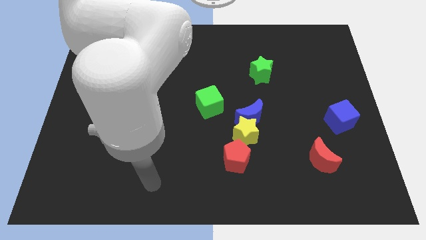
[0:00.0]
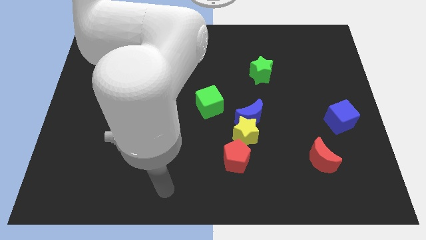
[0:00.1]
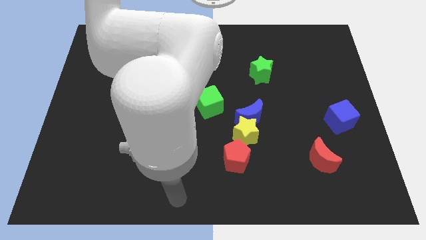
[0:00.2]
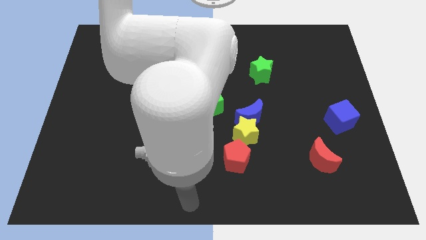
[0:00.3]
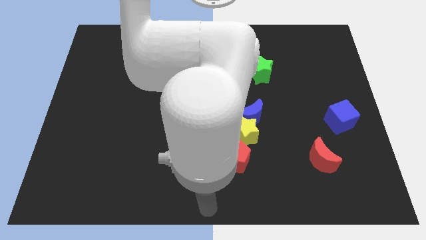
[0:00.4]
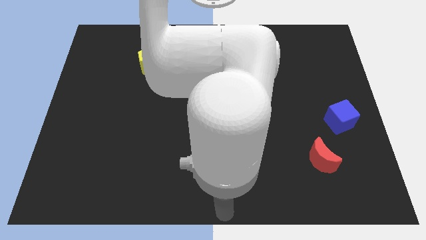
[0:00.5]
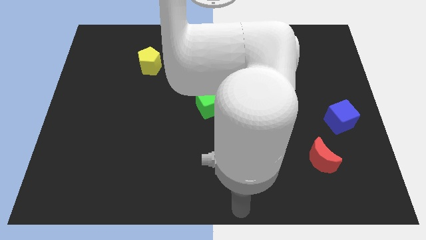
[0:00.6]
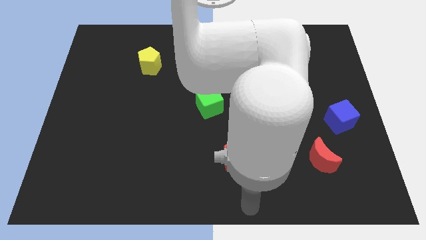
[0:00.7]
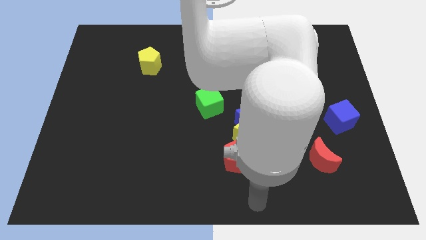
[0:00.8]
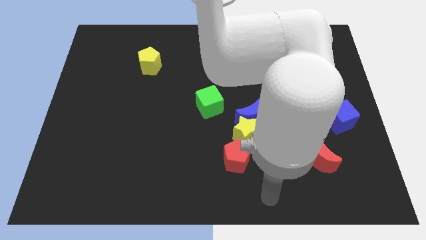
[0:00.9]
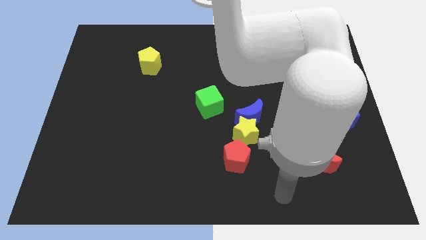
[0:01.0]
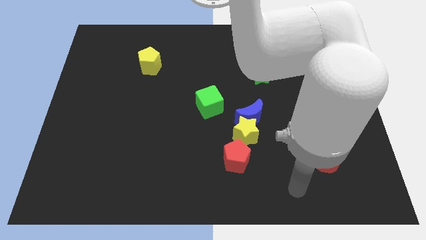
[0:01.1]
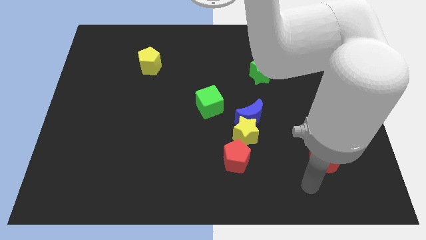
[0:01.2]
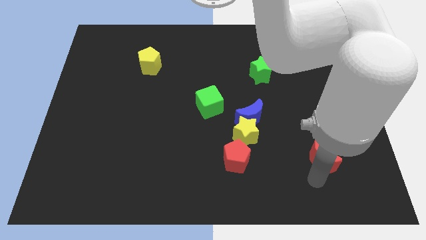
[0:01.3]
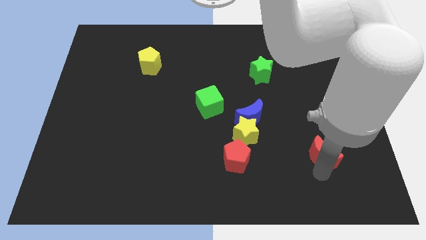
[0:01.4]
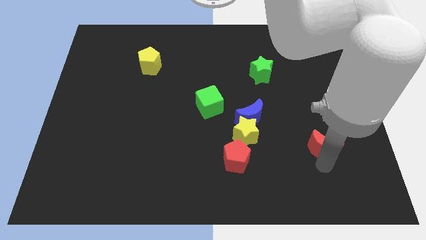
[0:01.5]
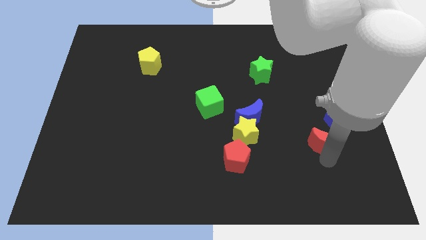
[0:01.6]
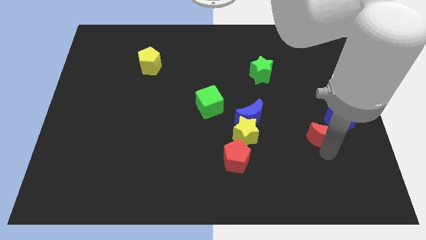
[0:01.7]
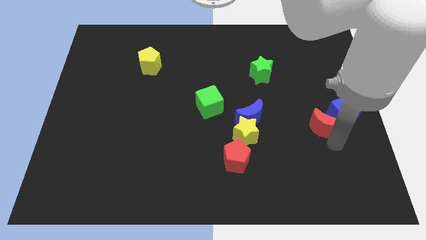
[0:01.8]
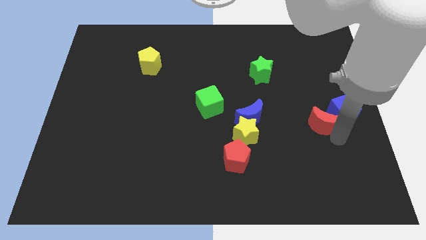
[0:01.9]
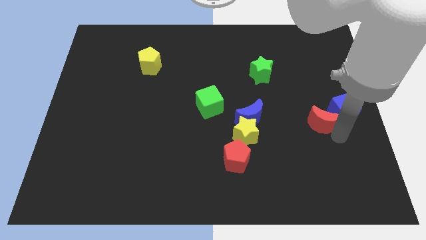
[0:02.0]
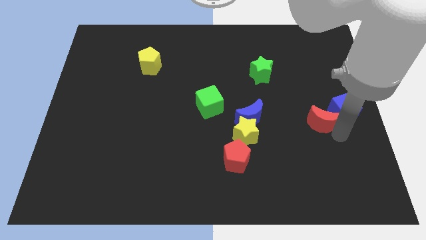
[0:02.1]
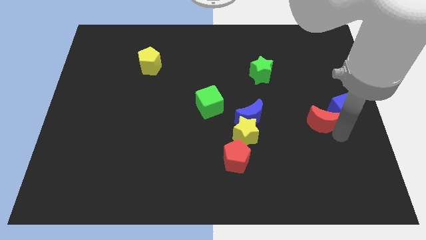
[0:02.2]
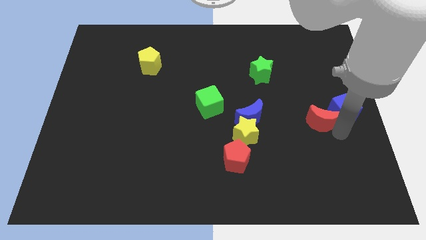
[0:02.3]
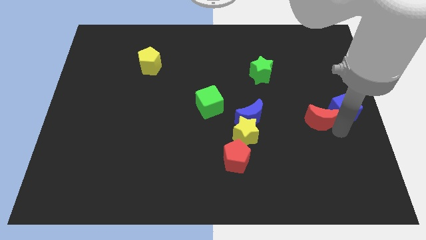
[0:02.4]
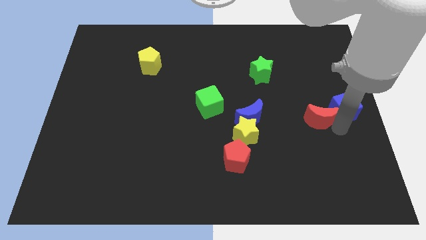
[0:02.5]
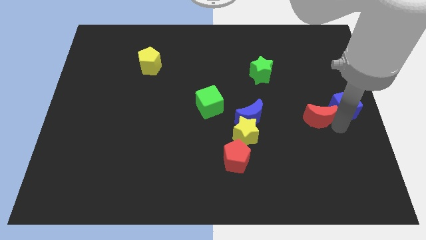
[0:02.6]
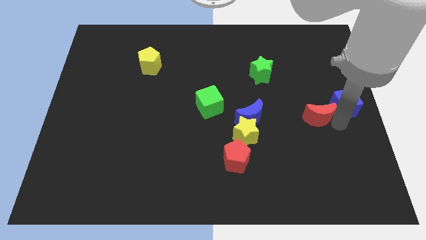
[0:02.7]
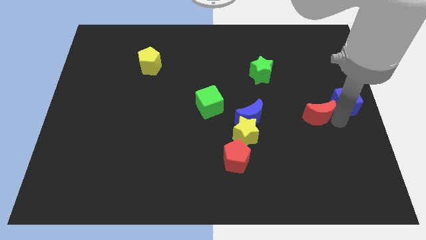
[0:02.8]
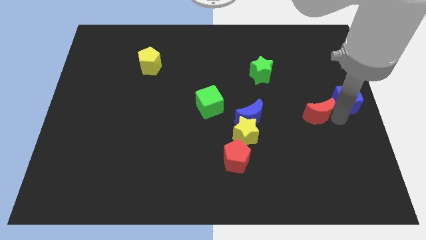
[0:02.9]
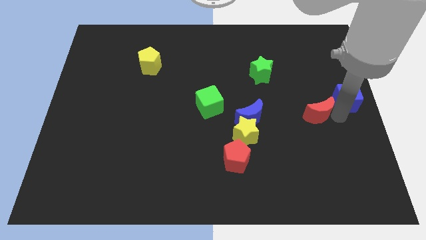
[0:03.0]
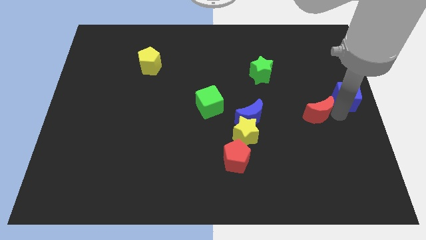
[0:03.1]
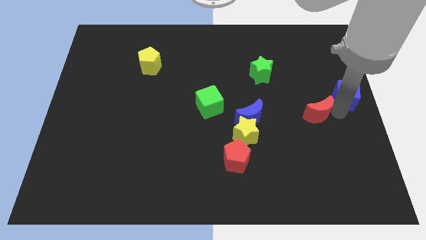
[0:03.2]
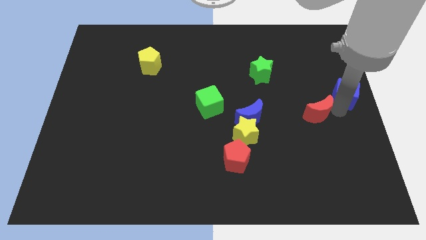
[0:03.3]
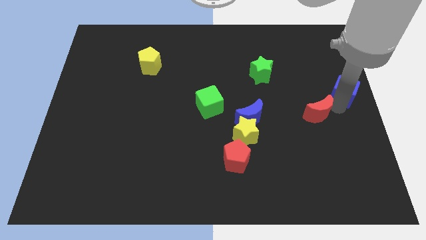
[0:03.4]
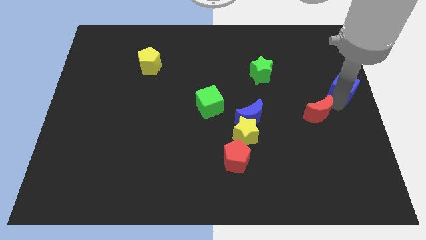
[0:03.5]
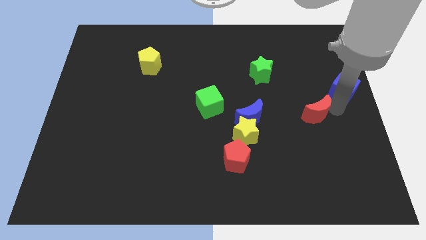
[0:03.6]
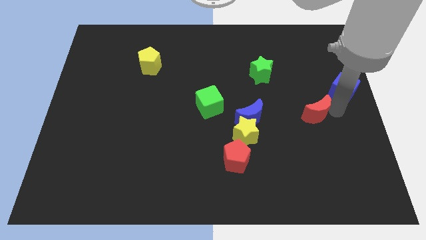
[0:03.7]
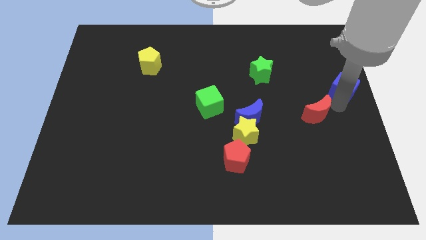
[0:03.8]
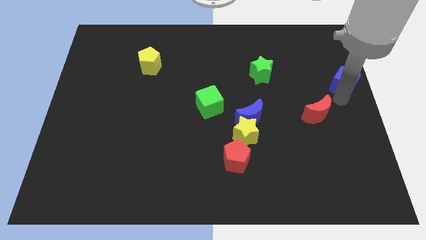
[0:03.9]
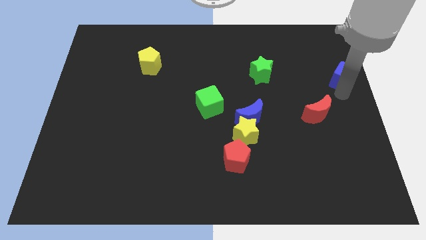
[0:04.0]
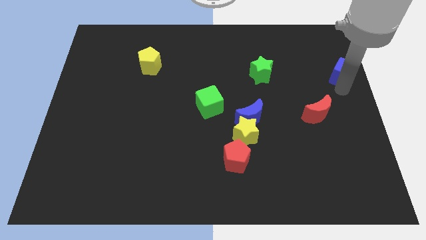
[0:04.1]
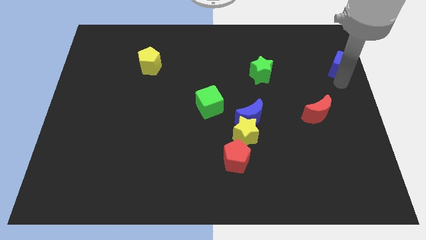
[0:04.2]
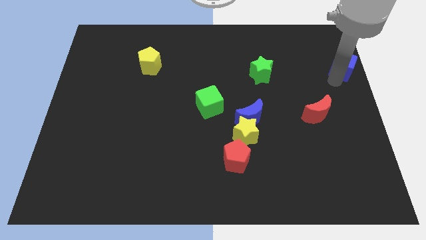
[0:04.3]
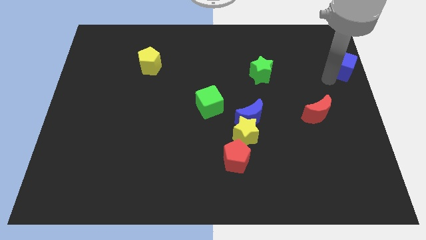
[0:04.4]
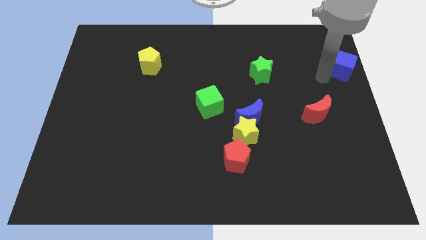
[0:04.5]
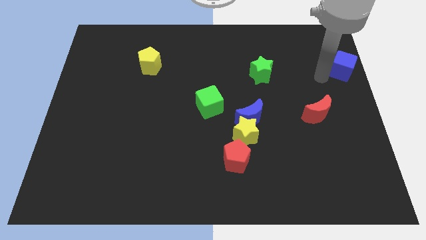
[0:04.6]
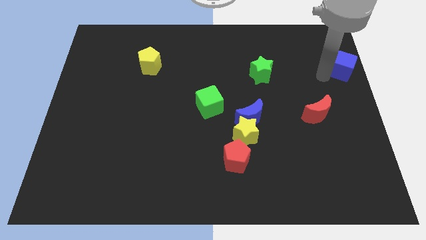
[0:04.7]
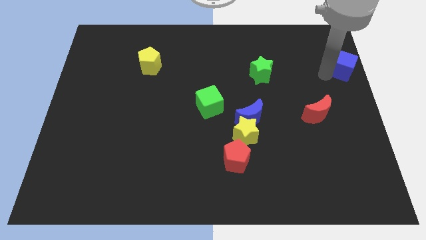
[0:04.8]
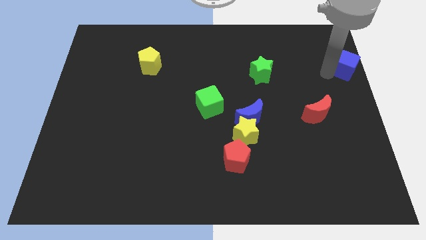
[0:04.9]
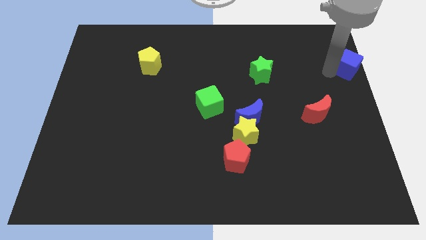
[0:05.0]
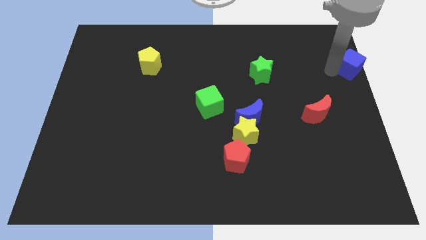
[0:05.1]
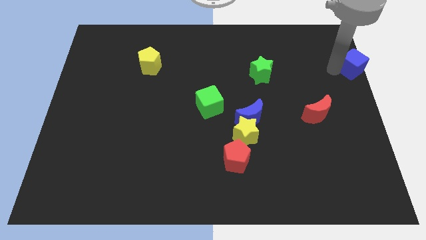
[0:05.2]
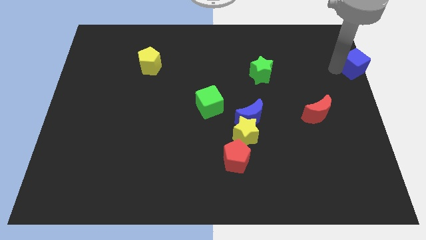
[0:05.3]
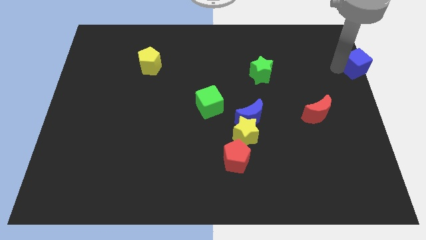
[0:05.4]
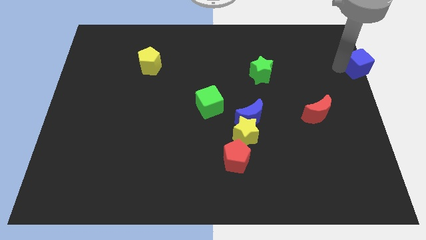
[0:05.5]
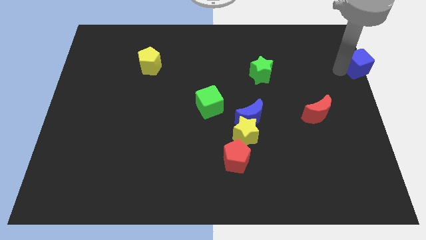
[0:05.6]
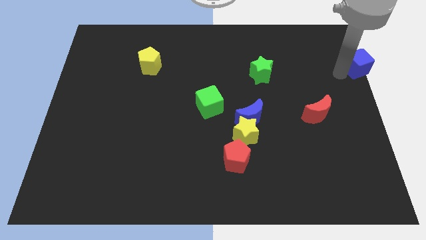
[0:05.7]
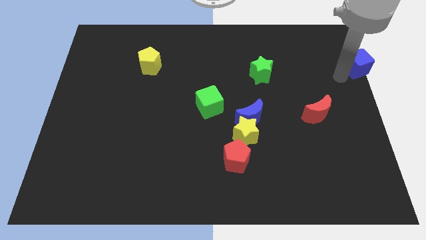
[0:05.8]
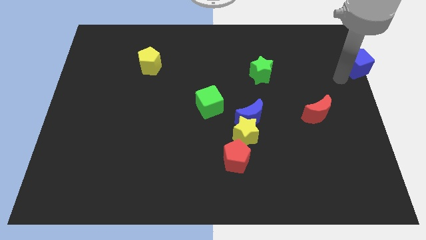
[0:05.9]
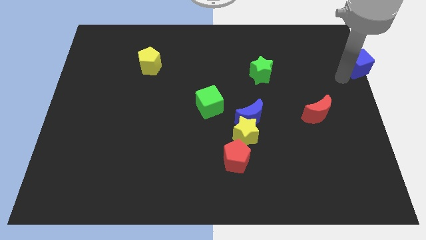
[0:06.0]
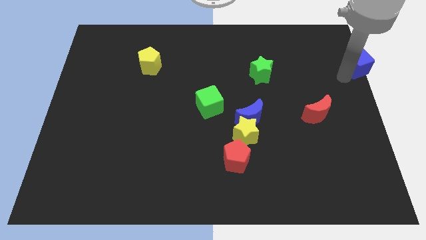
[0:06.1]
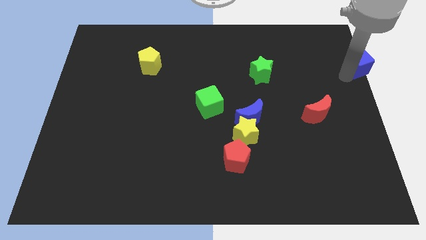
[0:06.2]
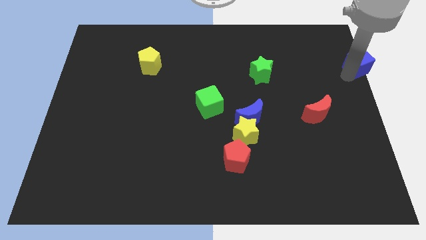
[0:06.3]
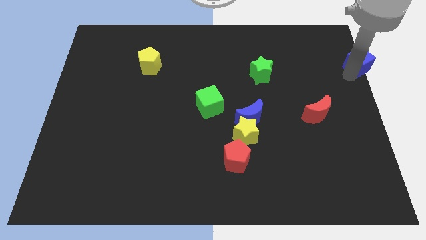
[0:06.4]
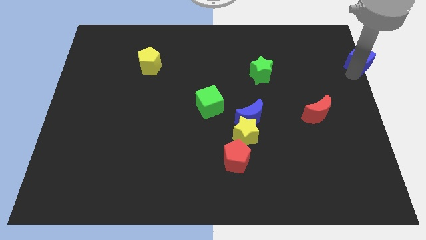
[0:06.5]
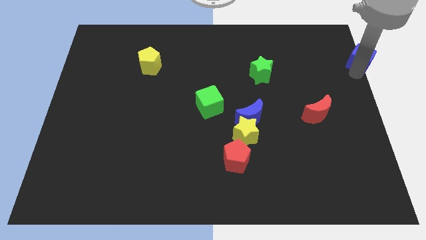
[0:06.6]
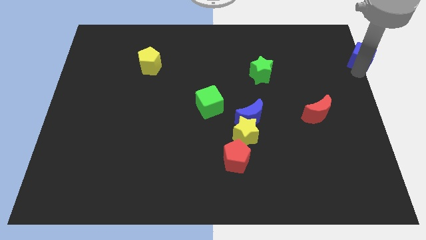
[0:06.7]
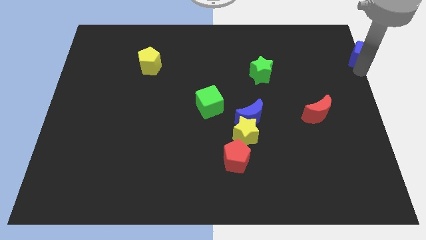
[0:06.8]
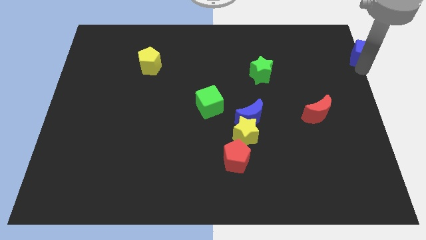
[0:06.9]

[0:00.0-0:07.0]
put the blue cube to the top right
